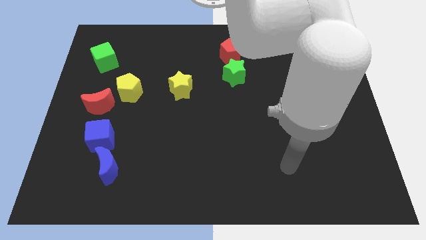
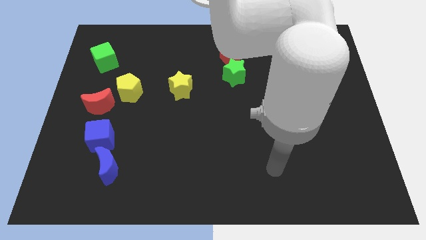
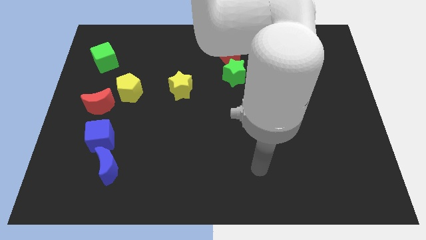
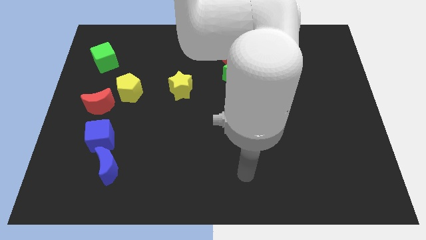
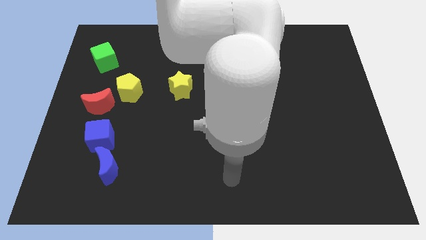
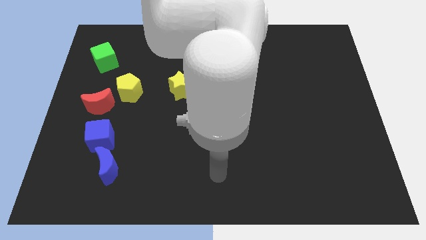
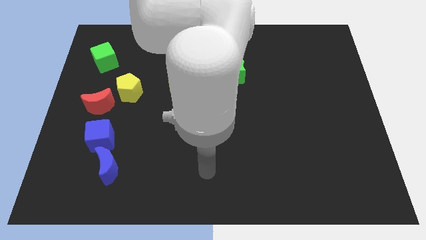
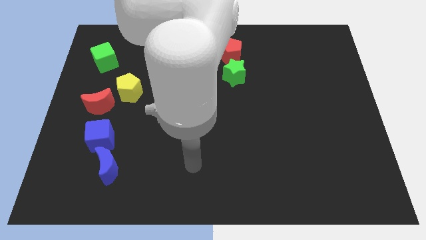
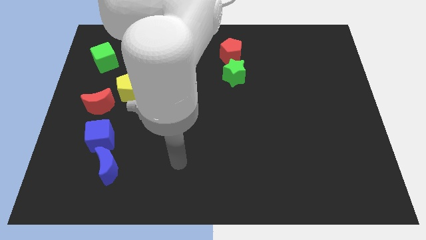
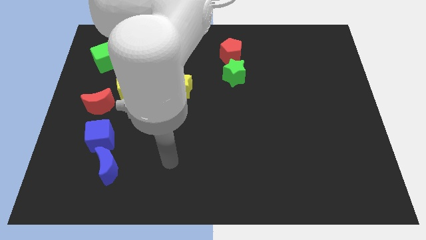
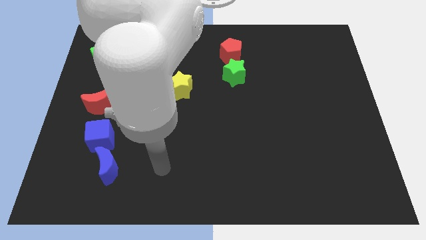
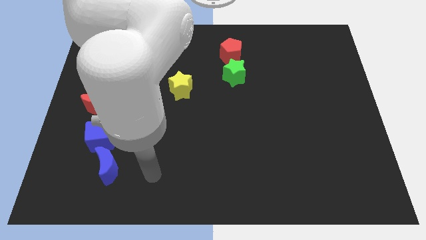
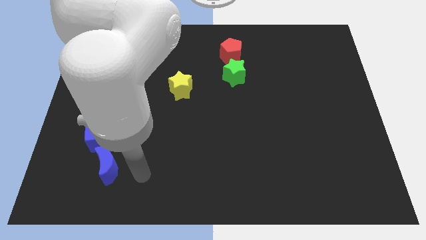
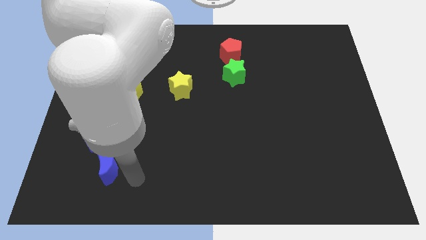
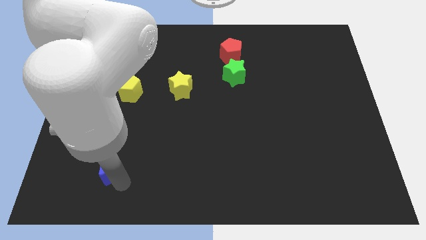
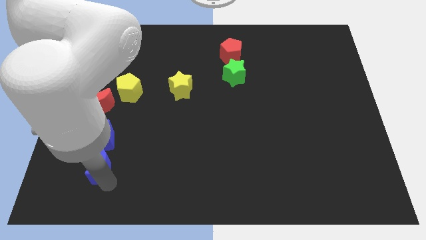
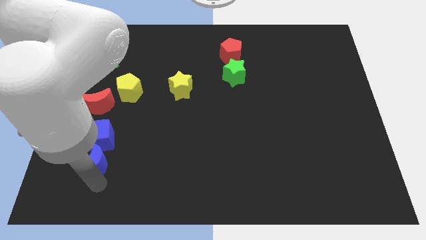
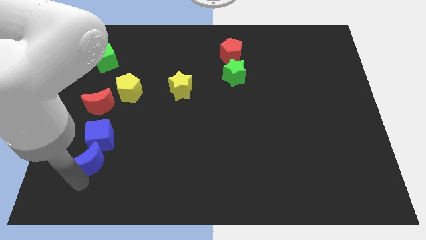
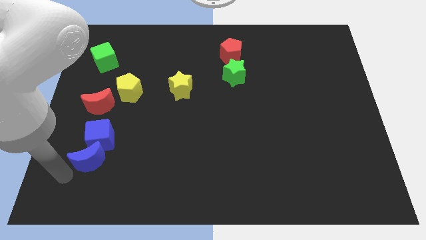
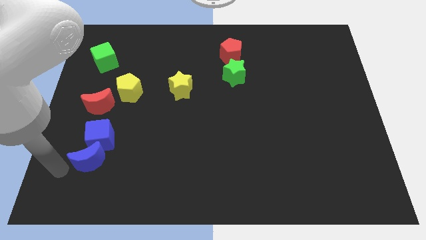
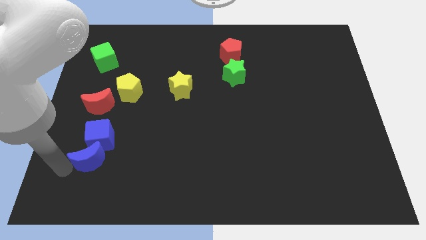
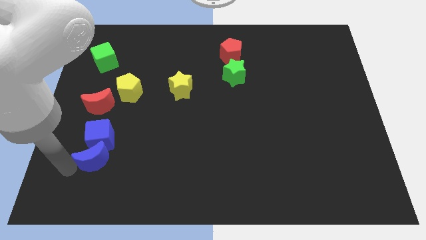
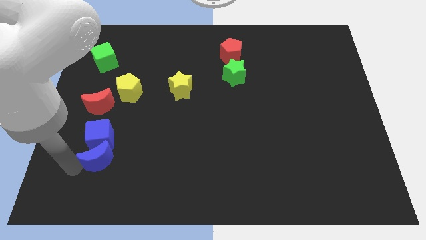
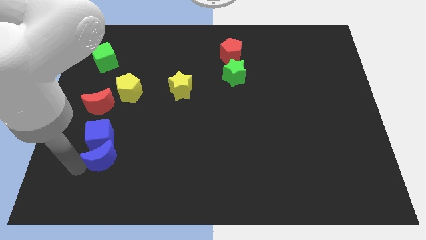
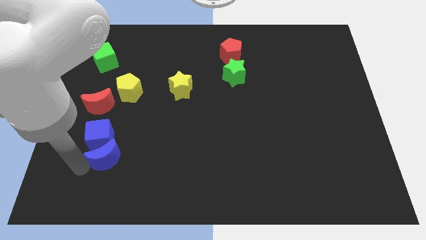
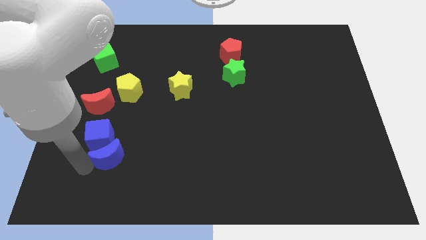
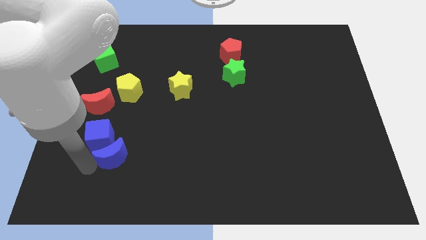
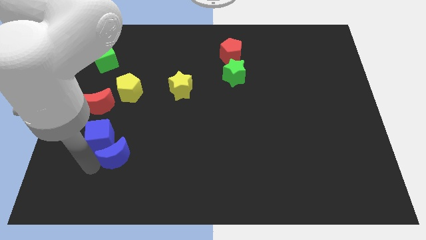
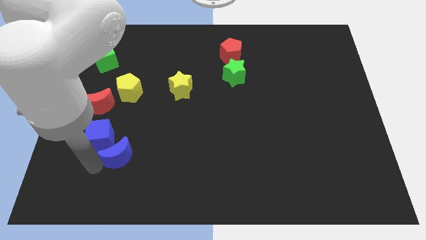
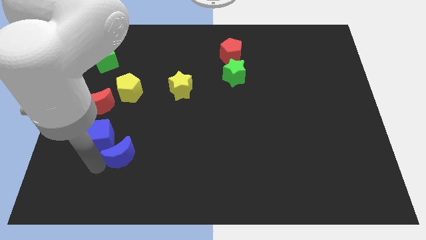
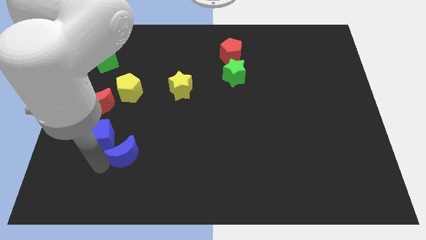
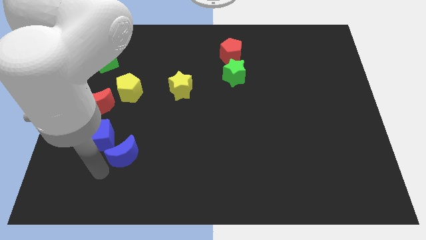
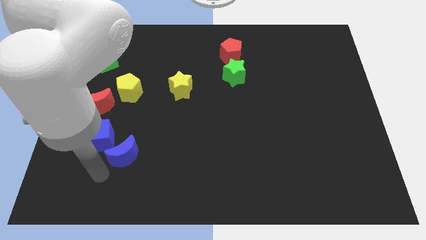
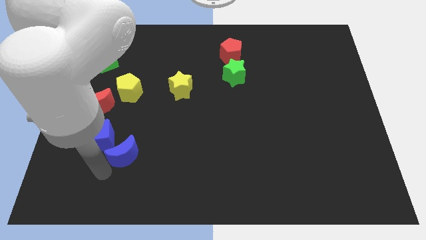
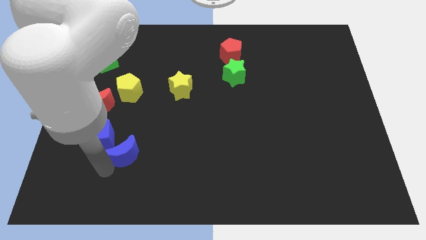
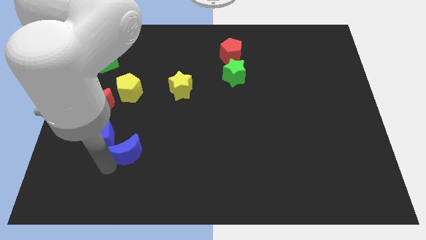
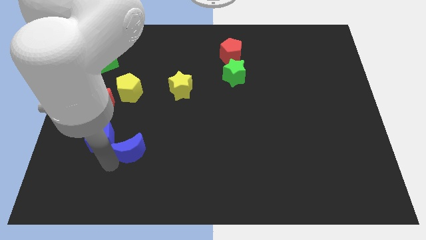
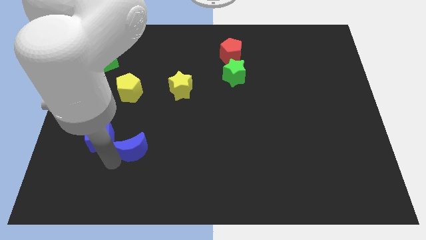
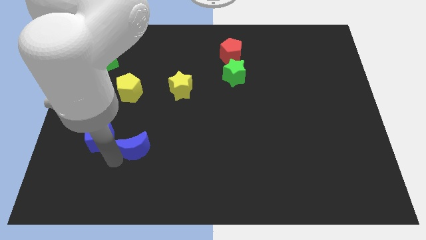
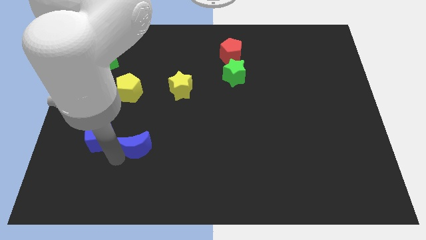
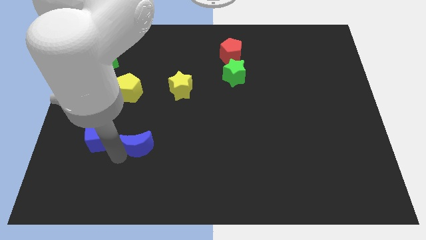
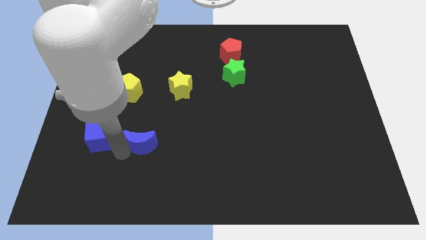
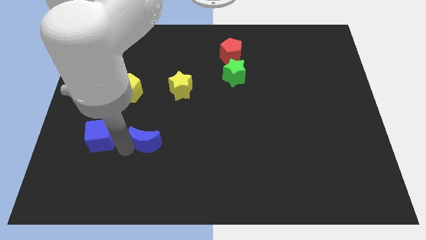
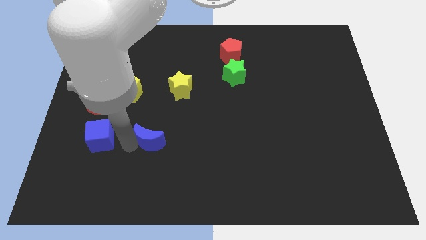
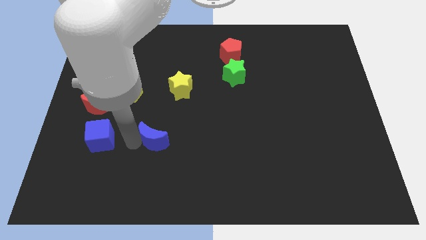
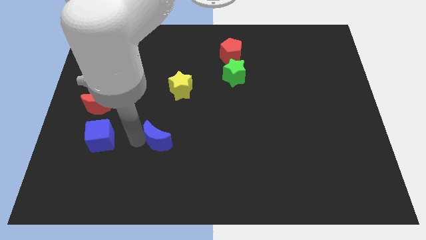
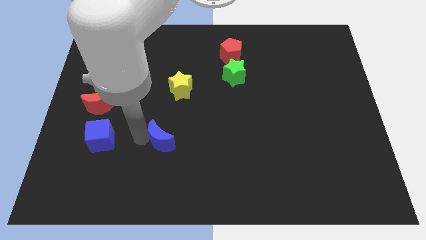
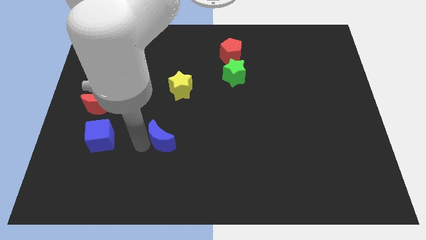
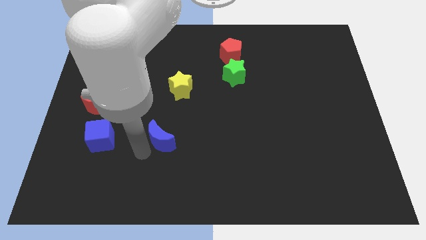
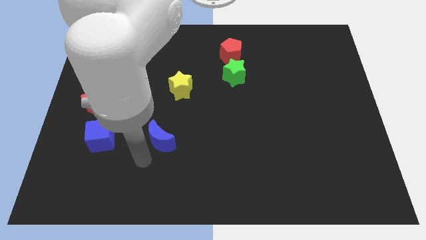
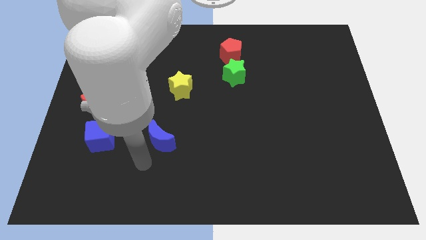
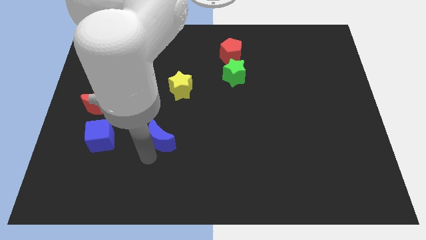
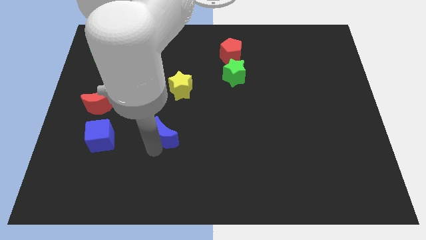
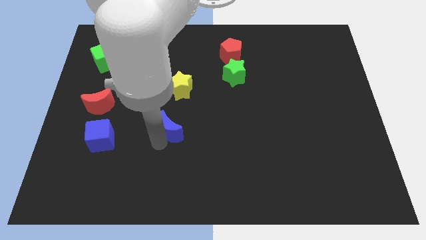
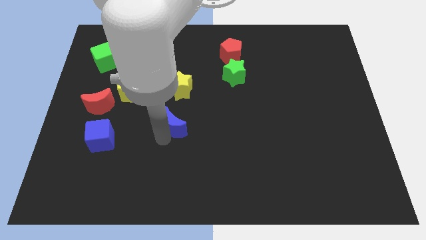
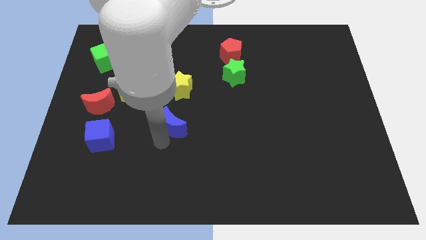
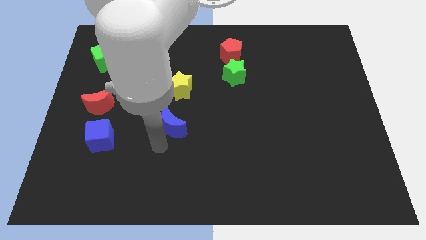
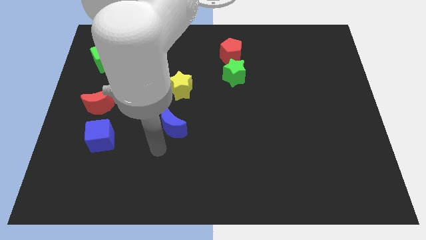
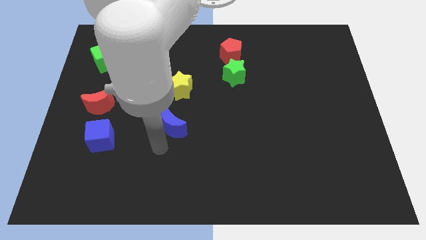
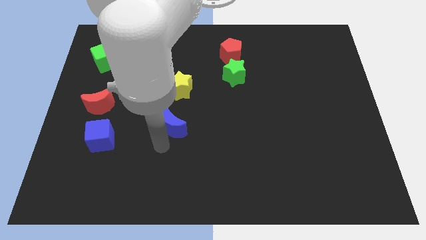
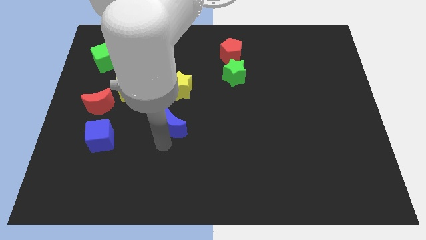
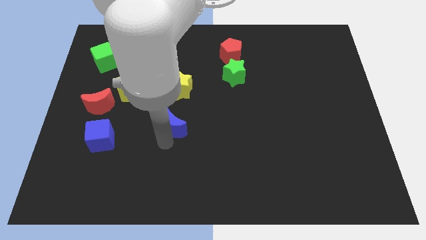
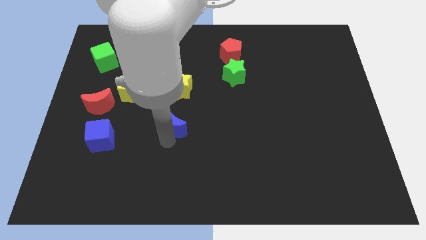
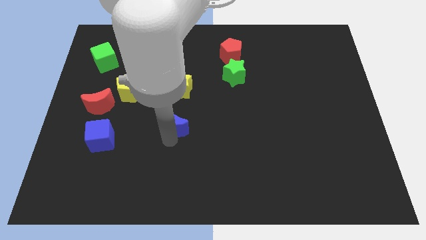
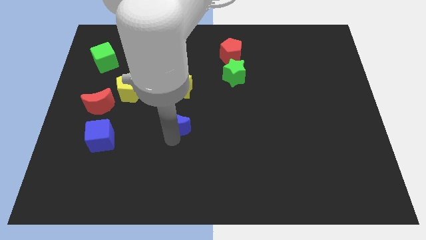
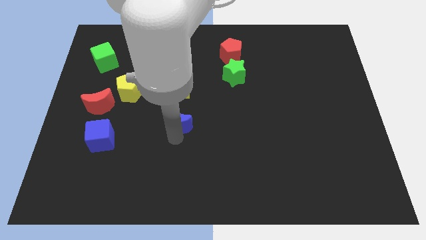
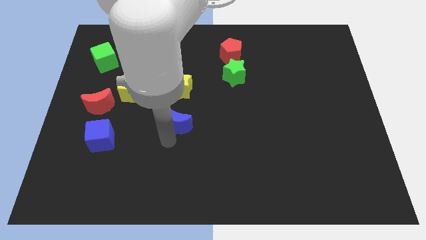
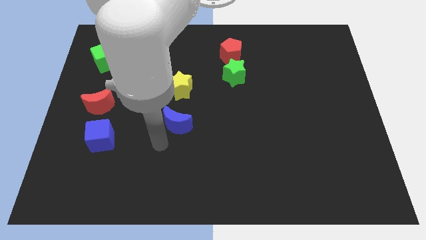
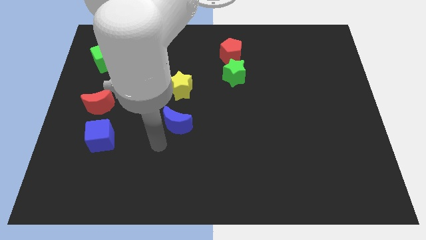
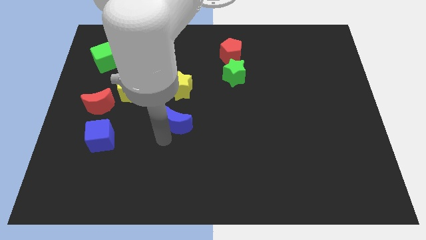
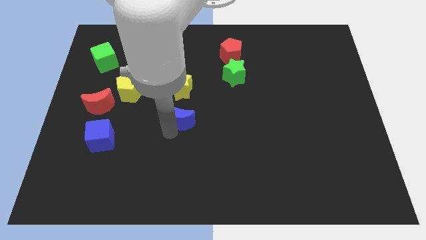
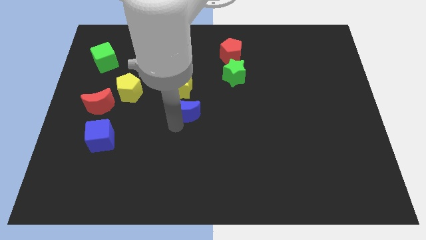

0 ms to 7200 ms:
push the blue moon upwards and right diagonally

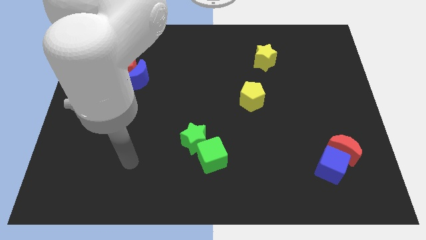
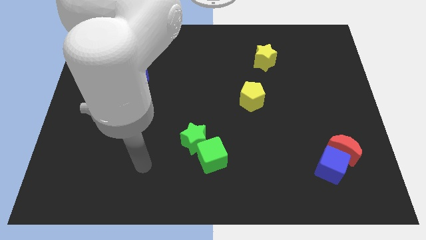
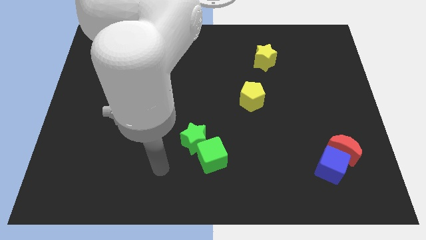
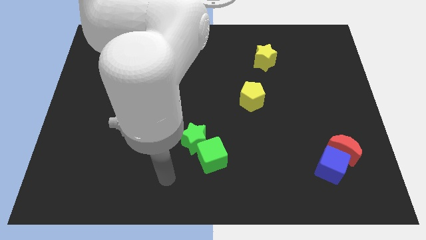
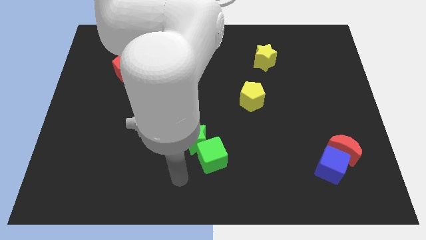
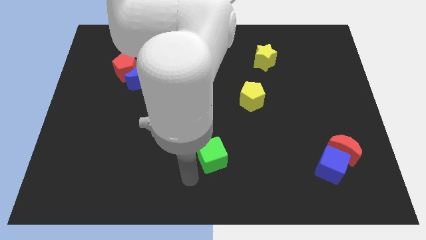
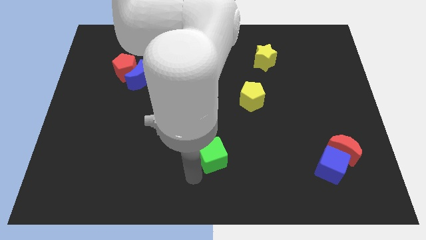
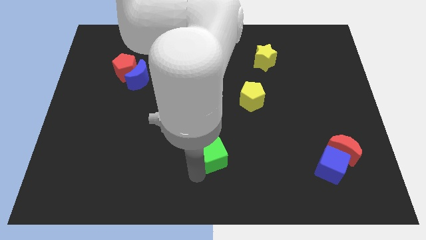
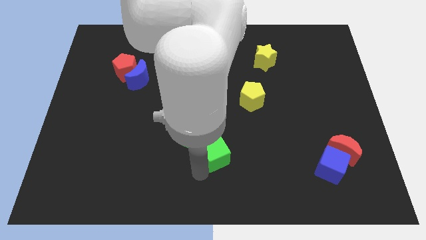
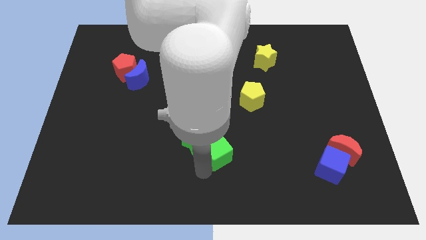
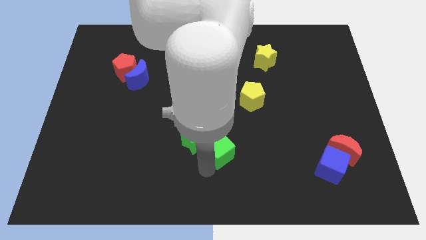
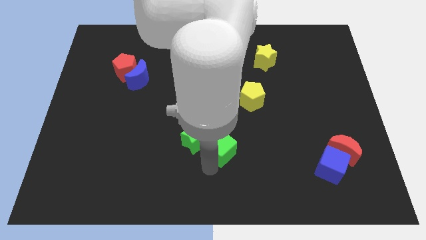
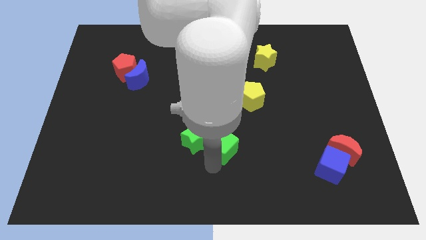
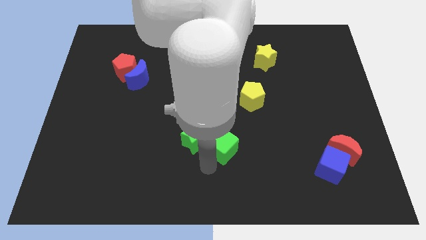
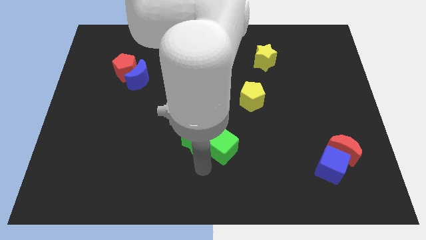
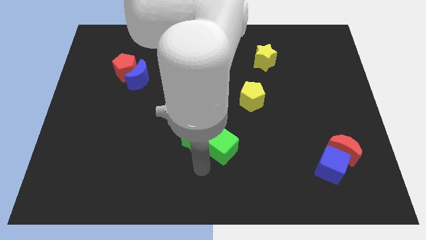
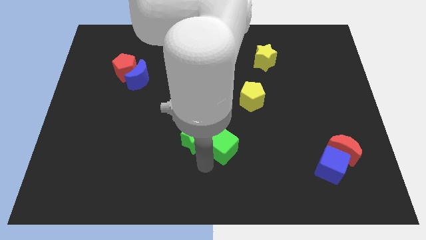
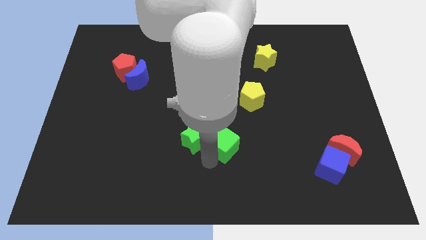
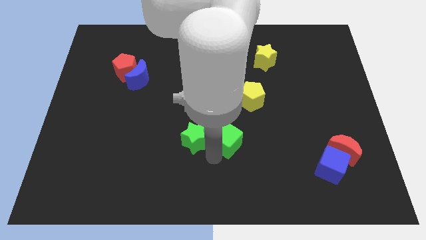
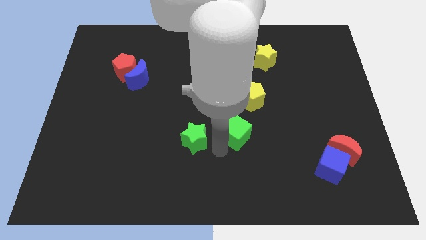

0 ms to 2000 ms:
slightly slide the green cube diagonally up and right
